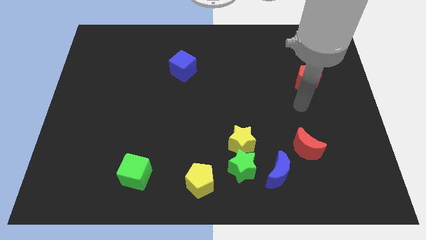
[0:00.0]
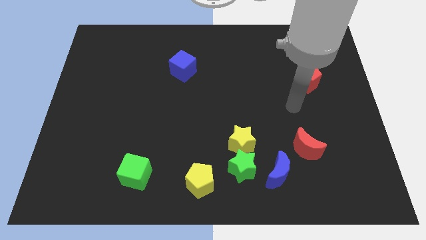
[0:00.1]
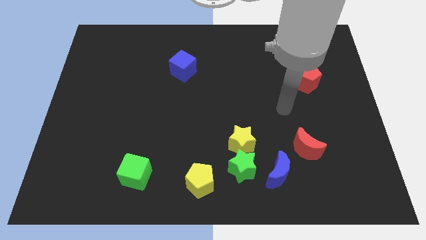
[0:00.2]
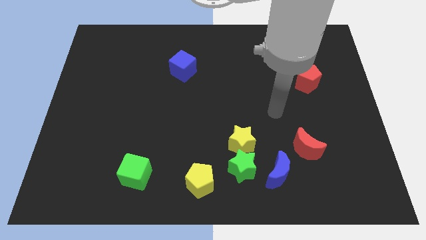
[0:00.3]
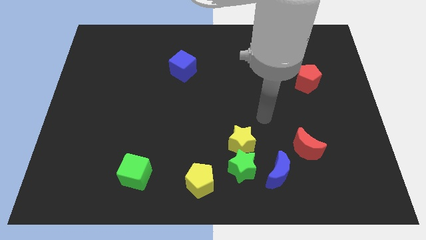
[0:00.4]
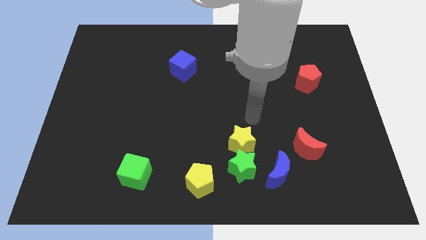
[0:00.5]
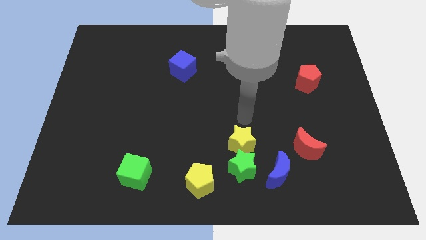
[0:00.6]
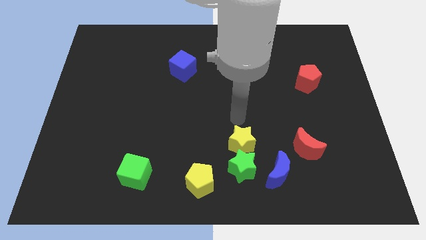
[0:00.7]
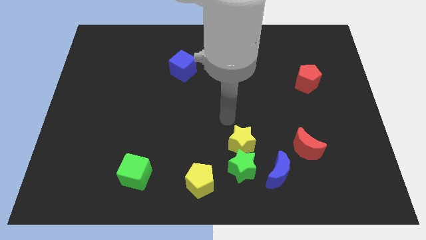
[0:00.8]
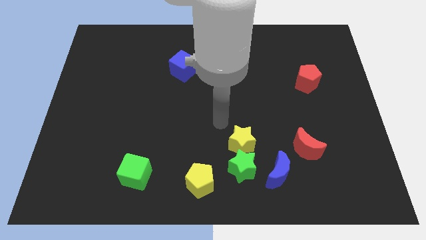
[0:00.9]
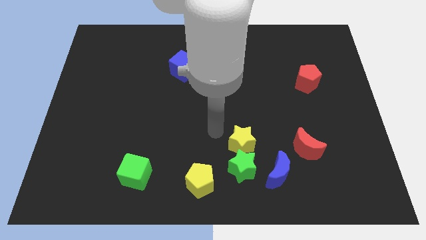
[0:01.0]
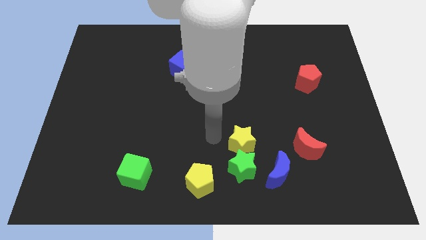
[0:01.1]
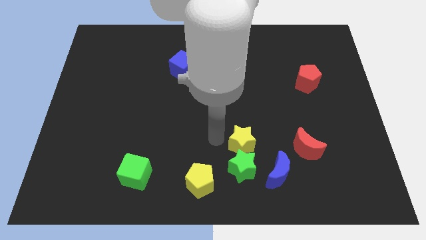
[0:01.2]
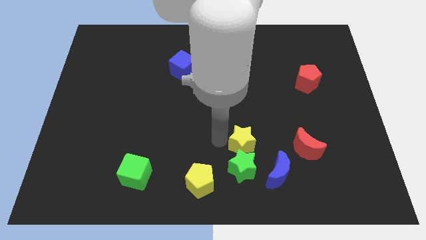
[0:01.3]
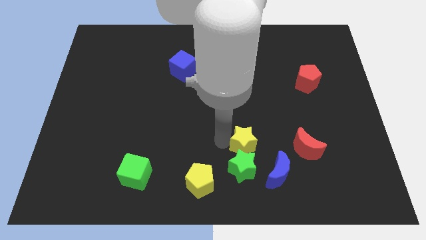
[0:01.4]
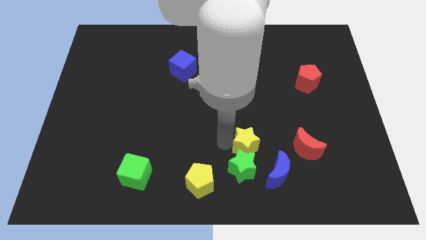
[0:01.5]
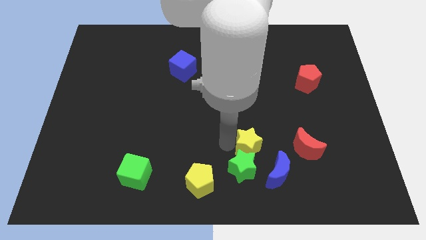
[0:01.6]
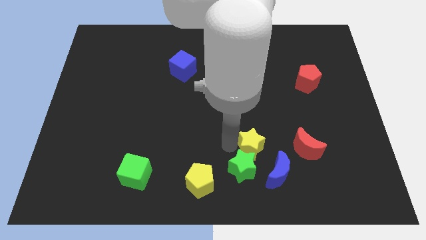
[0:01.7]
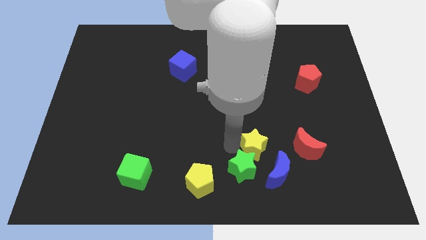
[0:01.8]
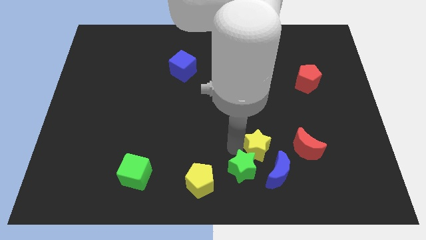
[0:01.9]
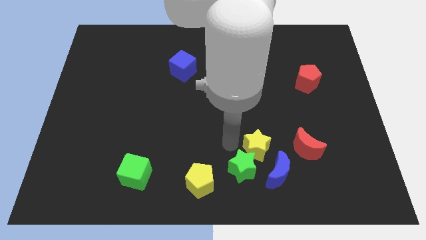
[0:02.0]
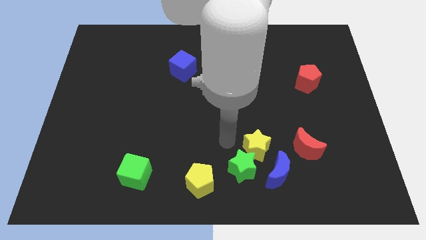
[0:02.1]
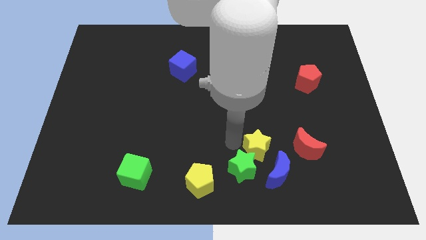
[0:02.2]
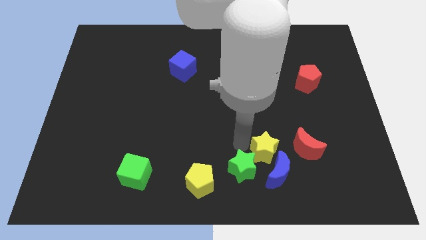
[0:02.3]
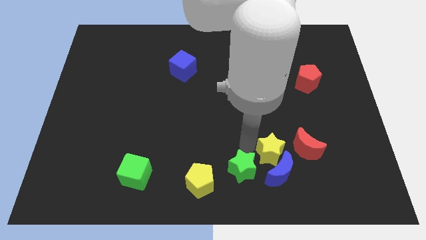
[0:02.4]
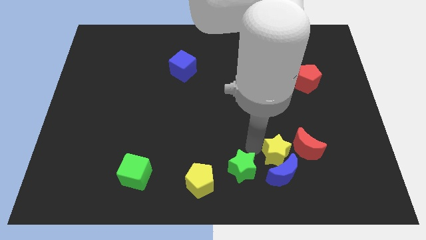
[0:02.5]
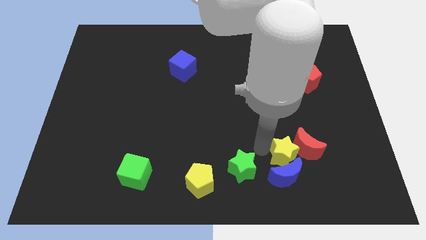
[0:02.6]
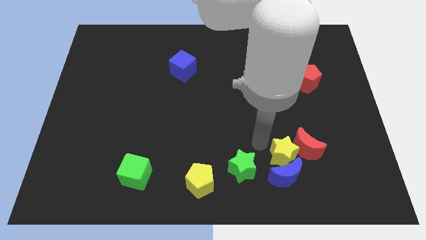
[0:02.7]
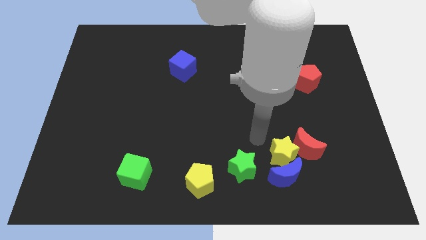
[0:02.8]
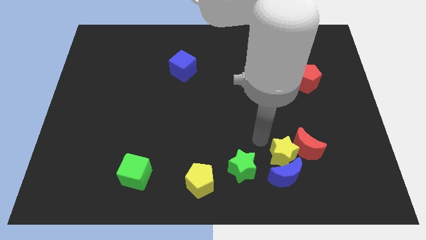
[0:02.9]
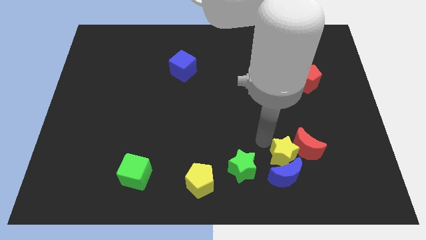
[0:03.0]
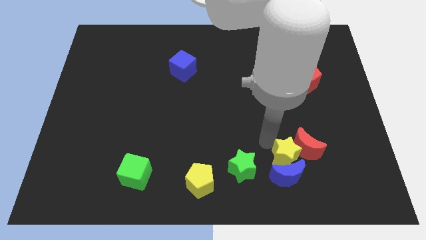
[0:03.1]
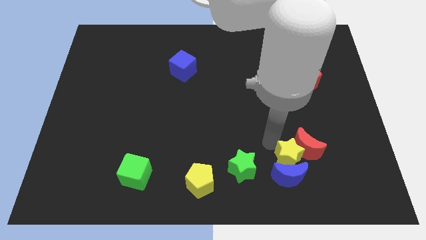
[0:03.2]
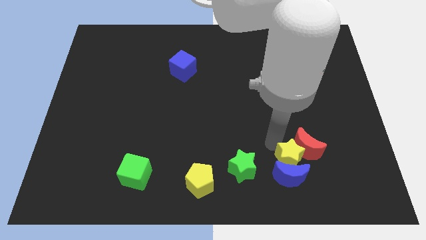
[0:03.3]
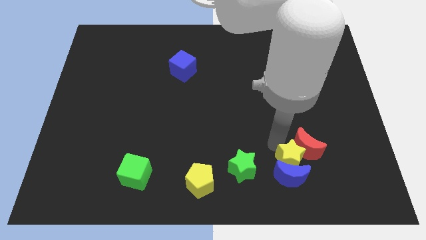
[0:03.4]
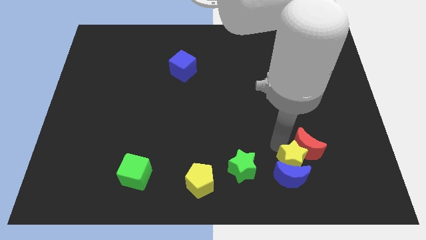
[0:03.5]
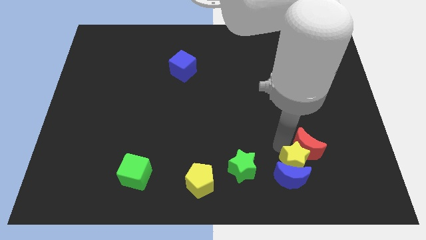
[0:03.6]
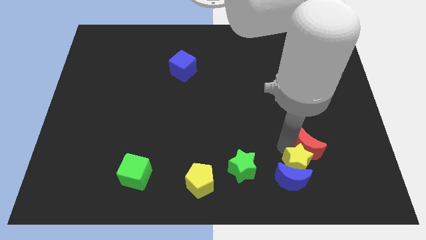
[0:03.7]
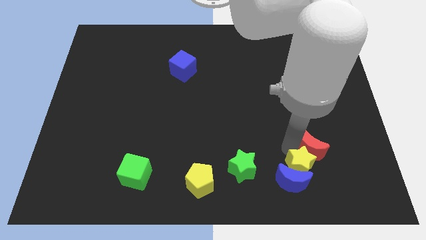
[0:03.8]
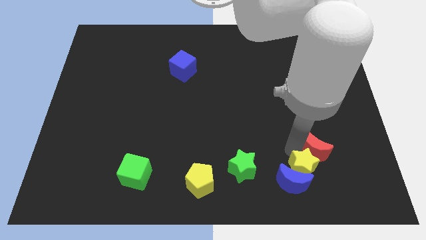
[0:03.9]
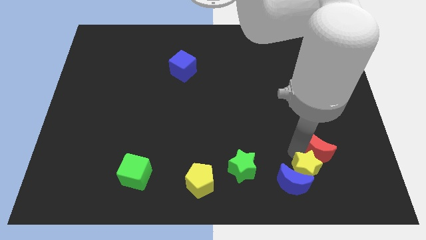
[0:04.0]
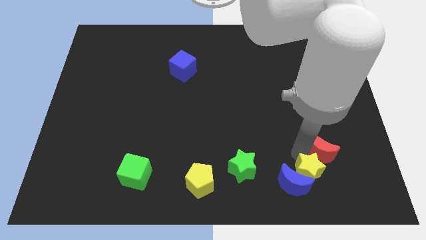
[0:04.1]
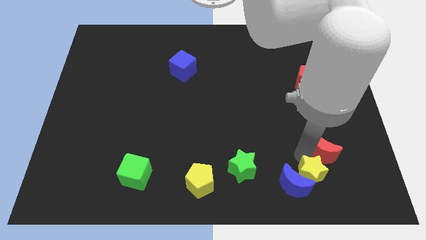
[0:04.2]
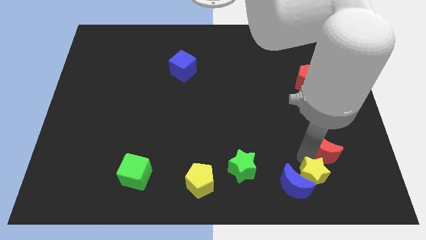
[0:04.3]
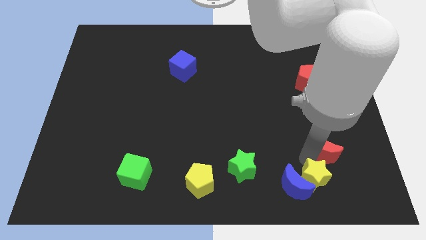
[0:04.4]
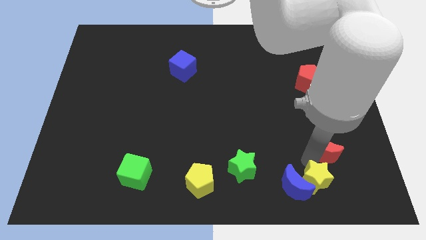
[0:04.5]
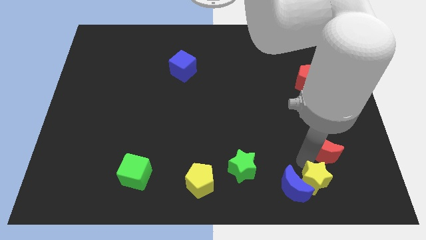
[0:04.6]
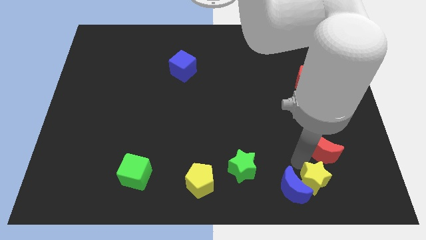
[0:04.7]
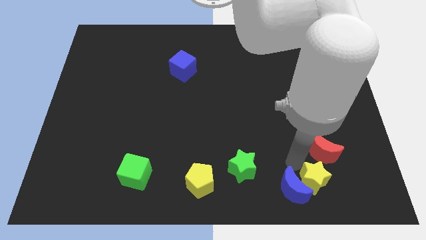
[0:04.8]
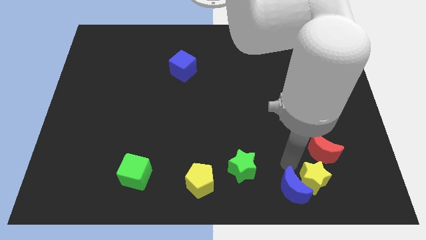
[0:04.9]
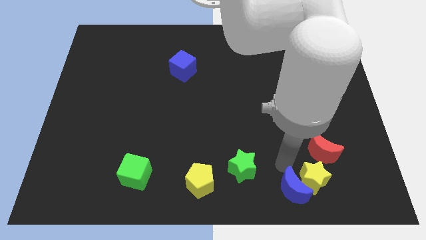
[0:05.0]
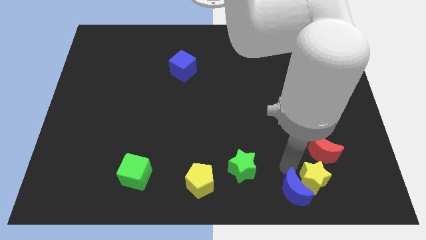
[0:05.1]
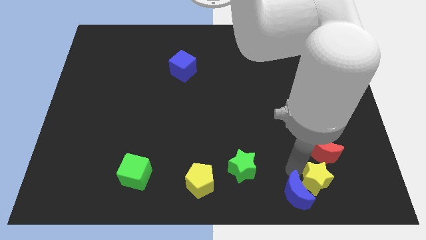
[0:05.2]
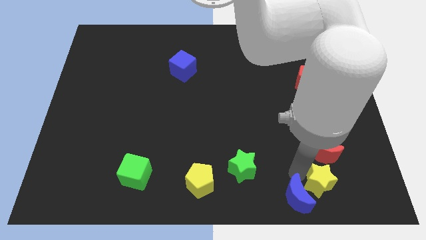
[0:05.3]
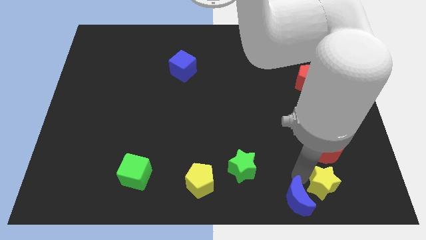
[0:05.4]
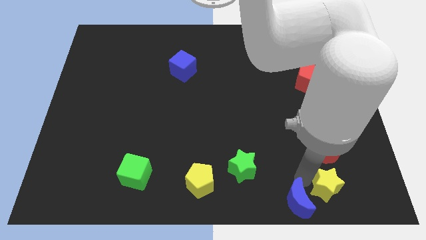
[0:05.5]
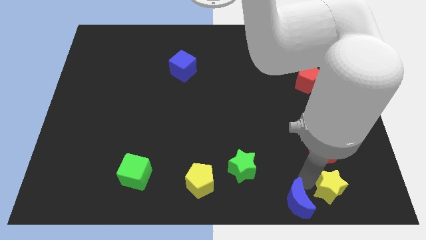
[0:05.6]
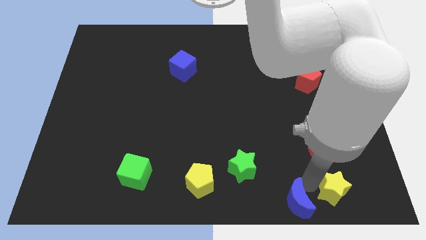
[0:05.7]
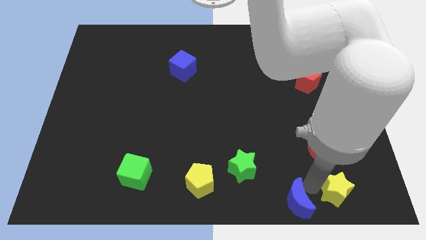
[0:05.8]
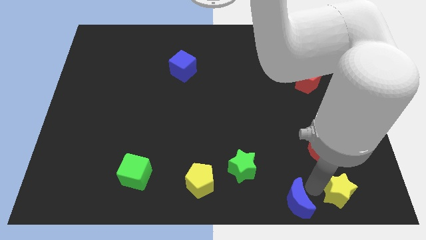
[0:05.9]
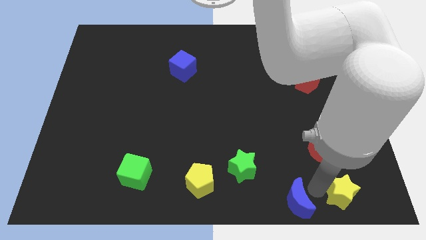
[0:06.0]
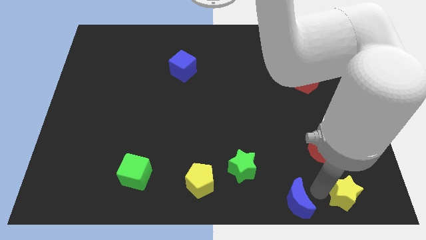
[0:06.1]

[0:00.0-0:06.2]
move the yellow star to the bottom right of the board
